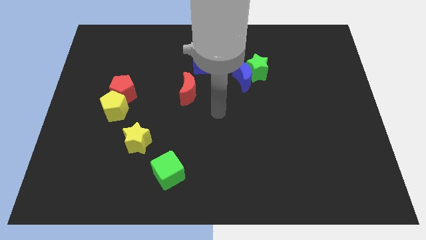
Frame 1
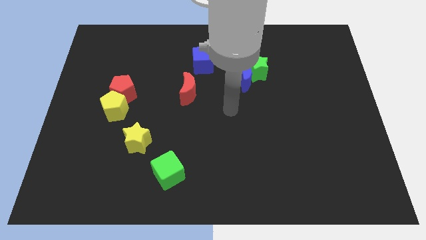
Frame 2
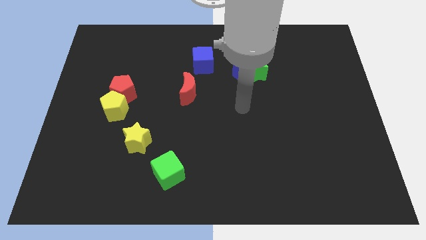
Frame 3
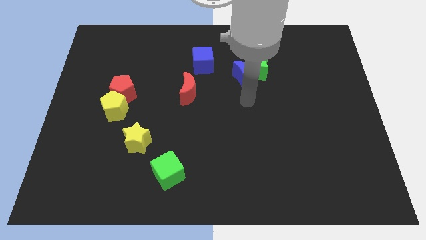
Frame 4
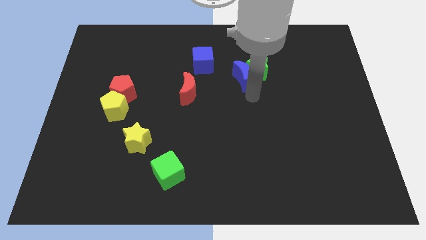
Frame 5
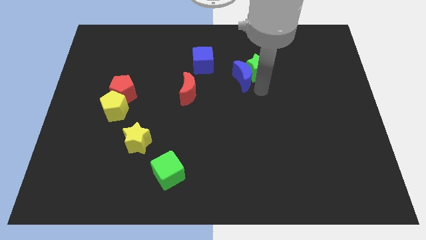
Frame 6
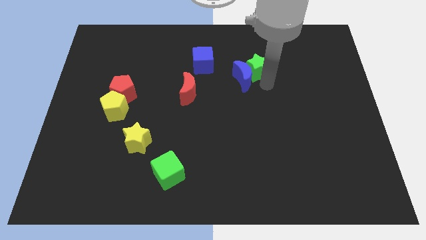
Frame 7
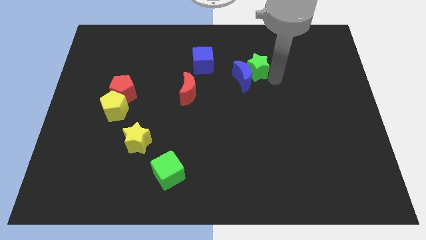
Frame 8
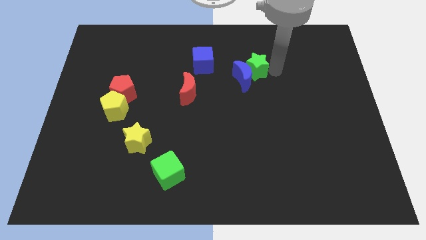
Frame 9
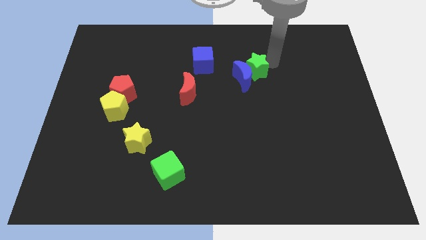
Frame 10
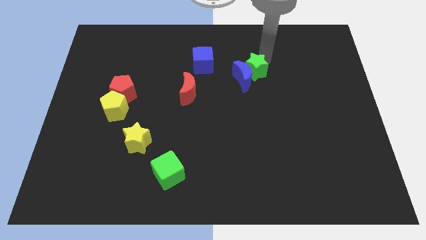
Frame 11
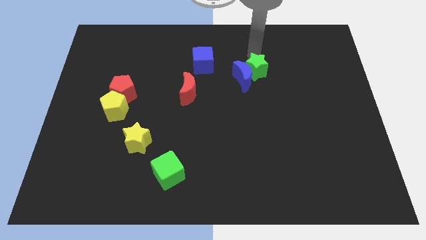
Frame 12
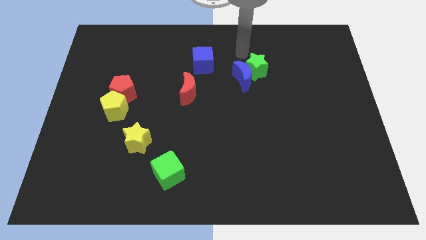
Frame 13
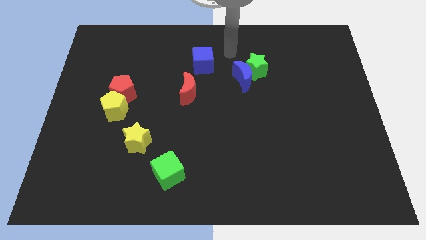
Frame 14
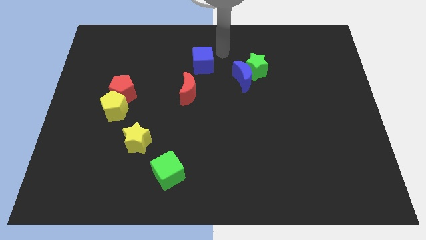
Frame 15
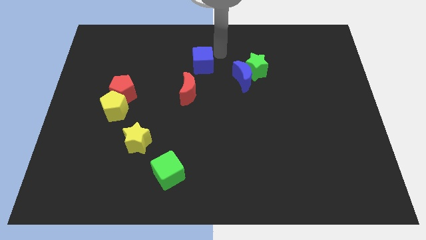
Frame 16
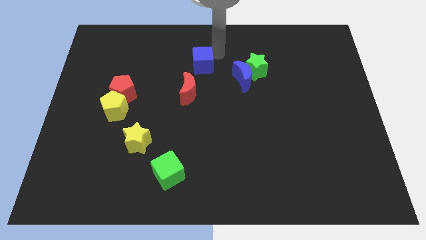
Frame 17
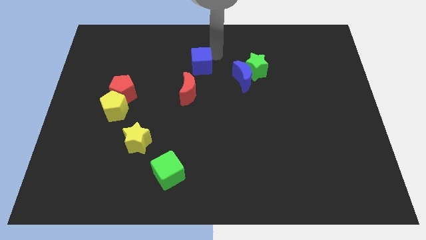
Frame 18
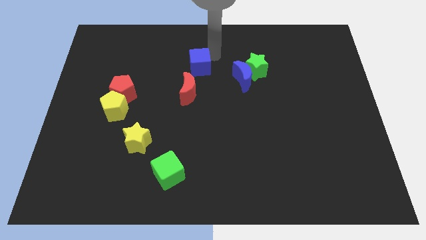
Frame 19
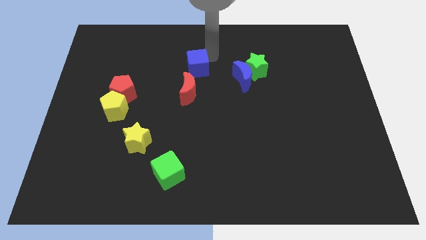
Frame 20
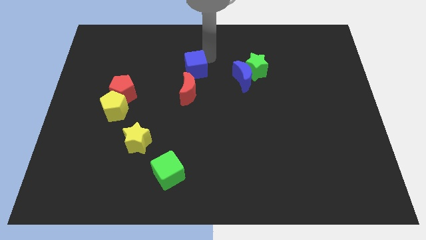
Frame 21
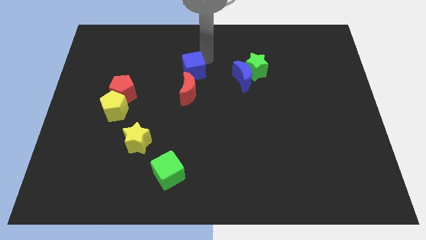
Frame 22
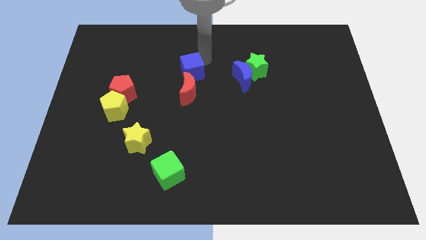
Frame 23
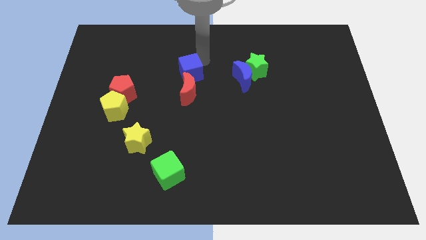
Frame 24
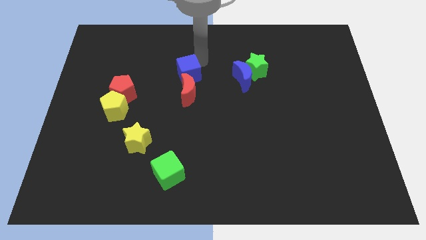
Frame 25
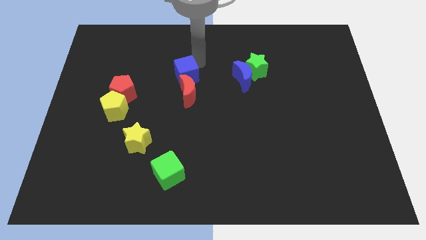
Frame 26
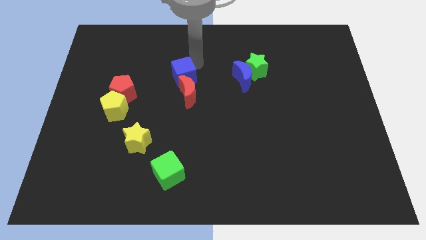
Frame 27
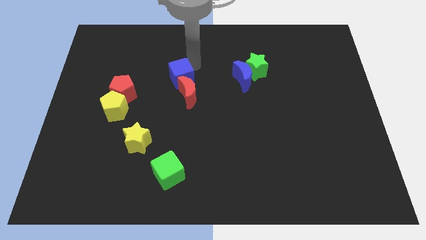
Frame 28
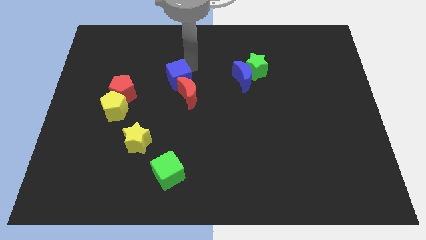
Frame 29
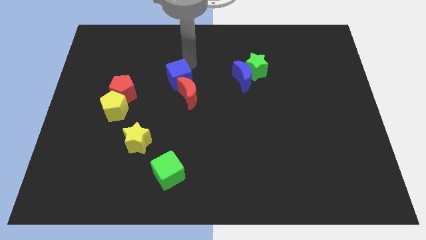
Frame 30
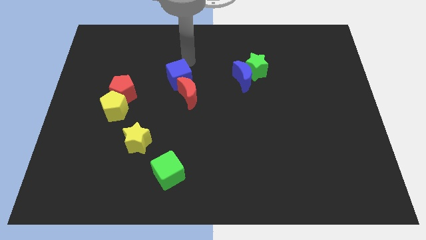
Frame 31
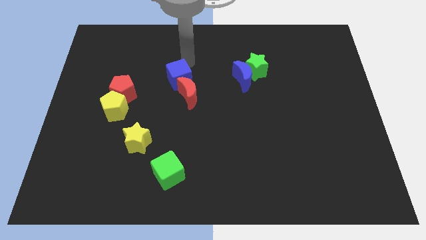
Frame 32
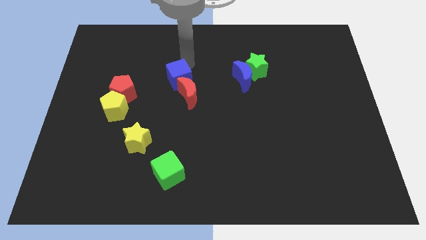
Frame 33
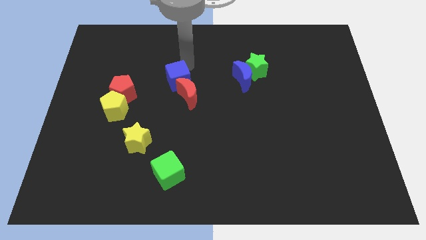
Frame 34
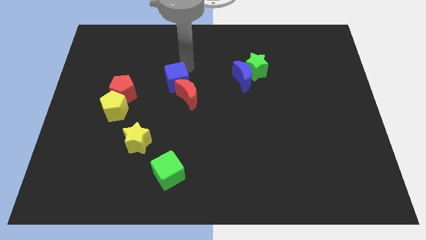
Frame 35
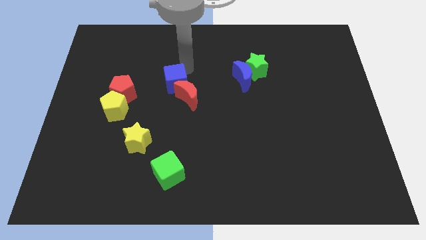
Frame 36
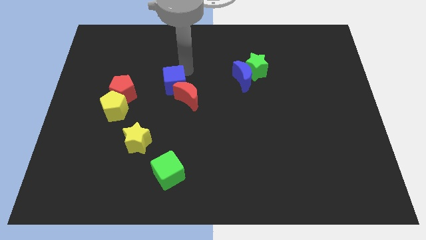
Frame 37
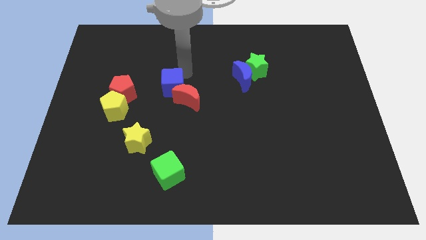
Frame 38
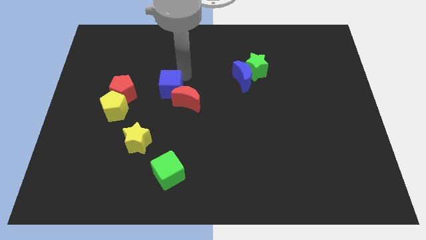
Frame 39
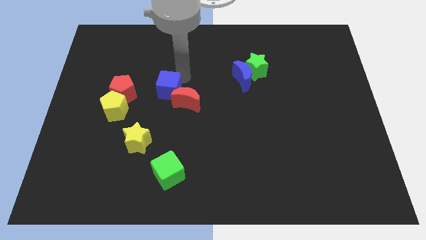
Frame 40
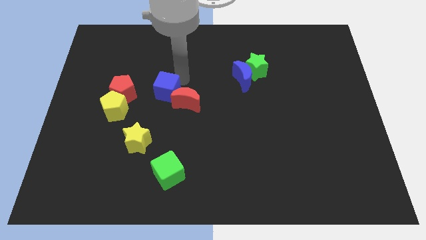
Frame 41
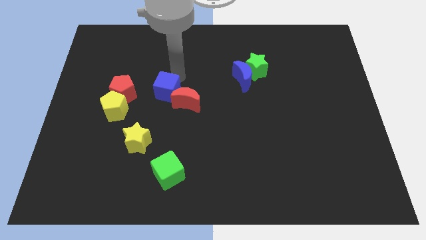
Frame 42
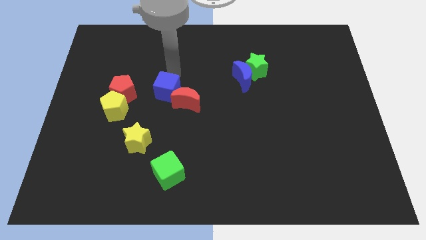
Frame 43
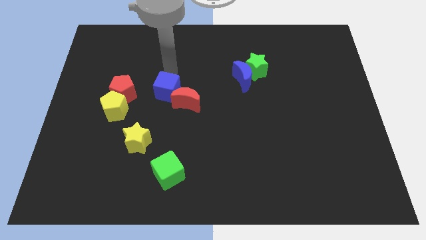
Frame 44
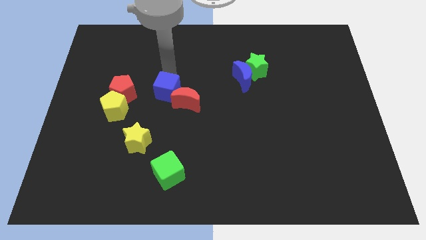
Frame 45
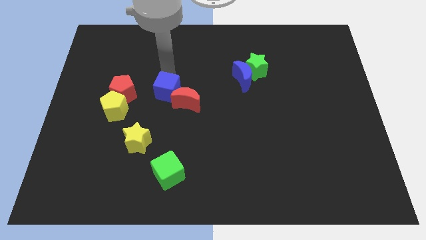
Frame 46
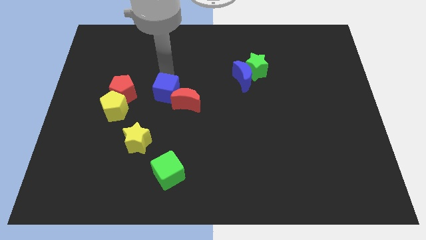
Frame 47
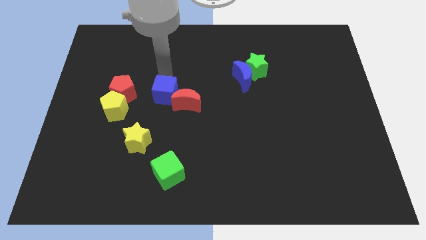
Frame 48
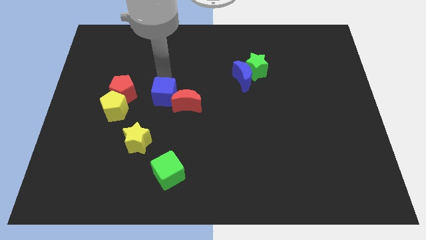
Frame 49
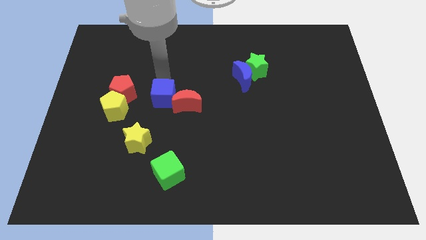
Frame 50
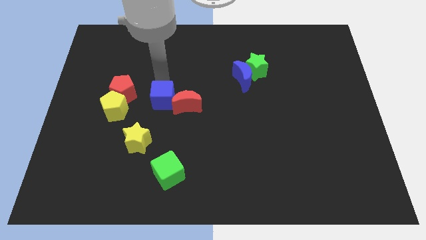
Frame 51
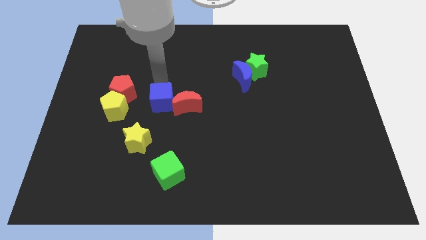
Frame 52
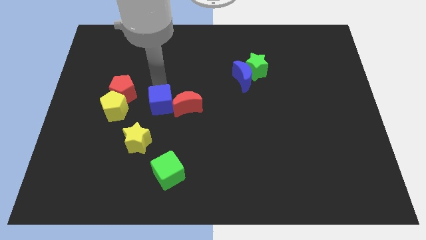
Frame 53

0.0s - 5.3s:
slide the blue cube to the top right side of the yellow star

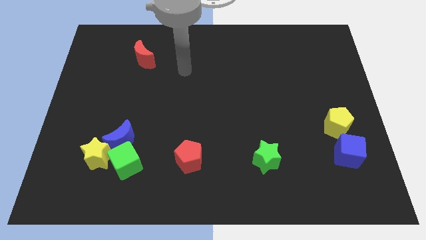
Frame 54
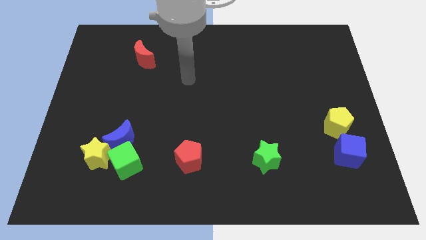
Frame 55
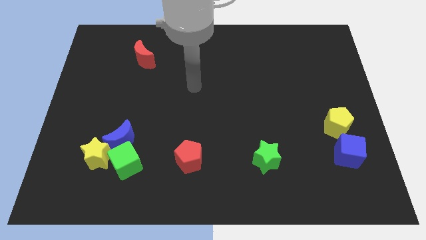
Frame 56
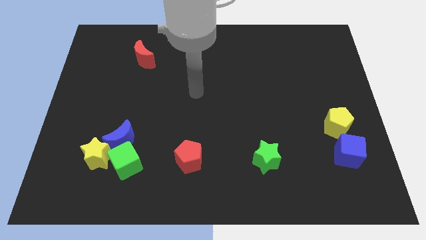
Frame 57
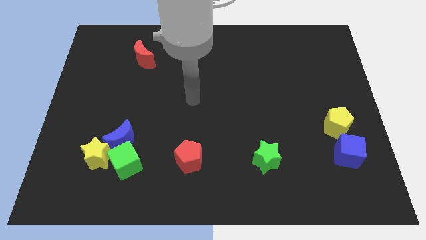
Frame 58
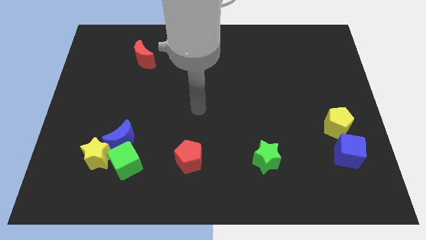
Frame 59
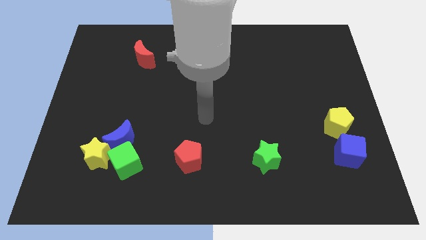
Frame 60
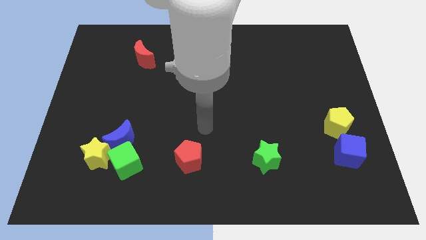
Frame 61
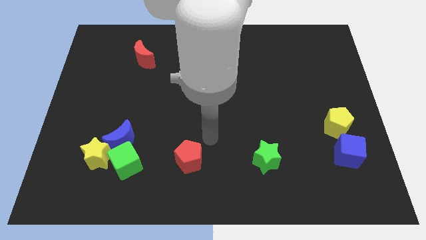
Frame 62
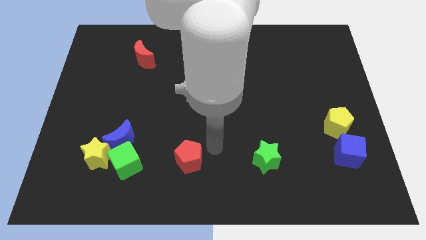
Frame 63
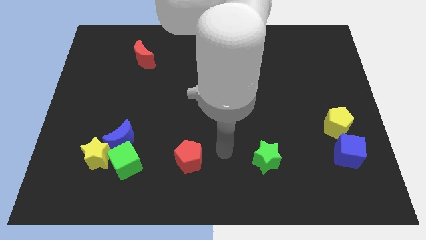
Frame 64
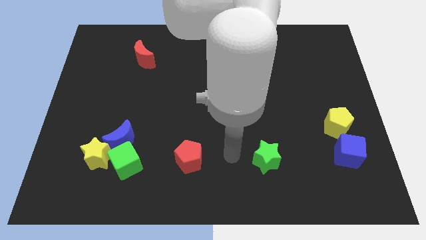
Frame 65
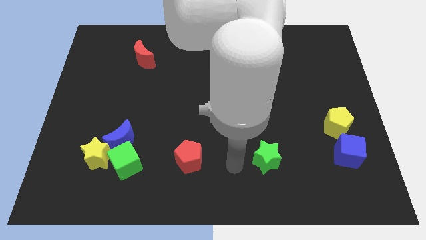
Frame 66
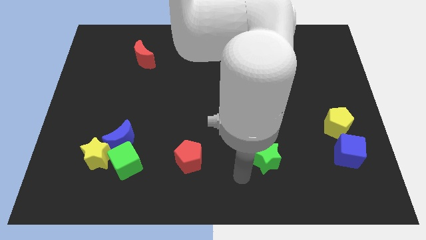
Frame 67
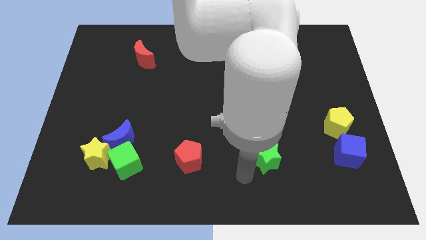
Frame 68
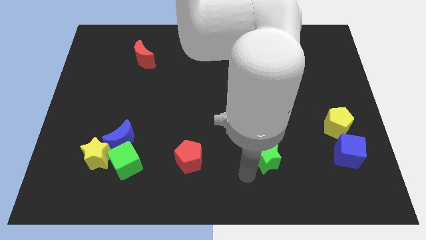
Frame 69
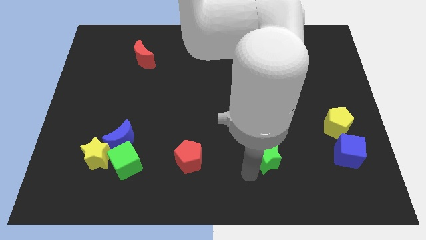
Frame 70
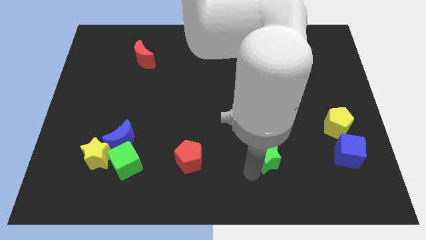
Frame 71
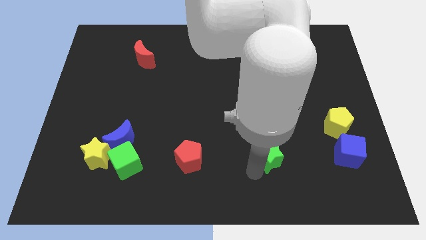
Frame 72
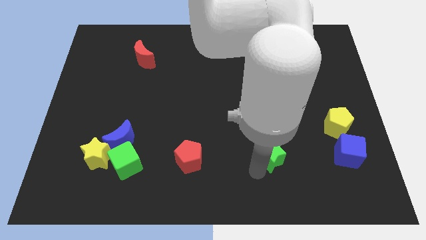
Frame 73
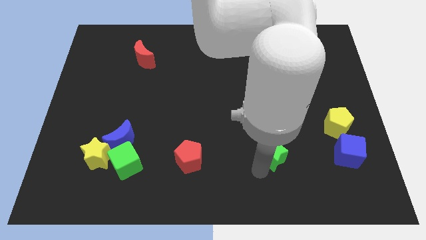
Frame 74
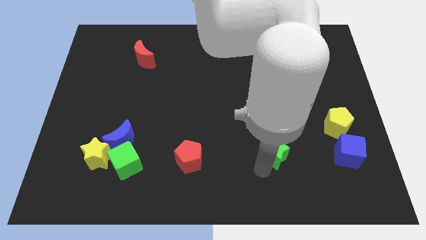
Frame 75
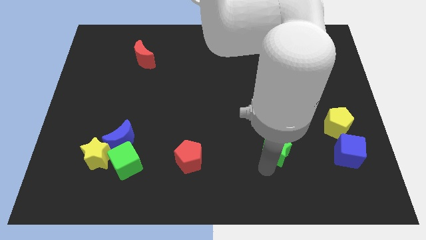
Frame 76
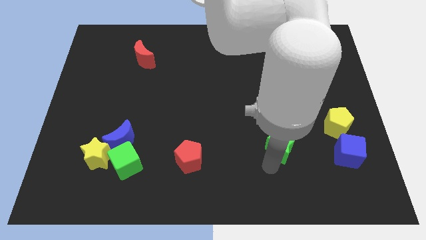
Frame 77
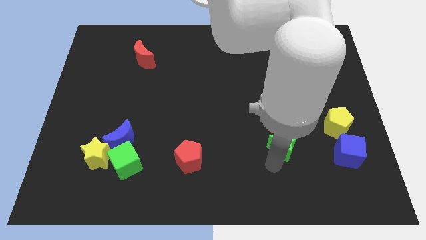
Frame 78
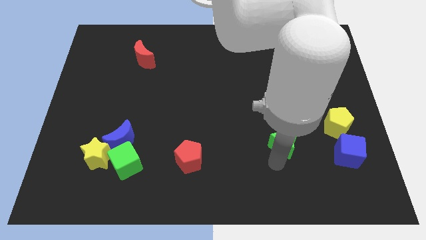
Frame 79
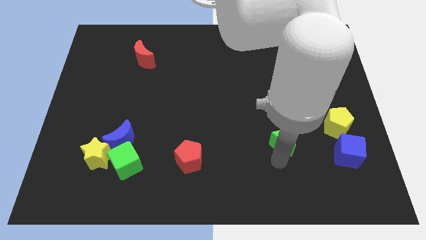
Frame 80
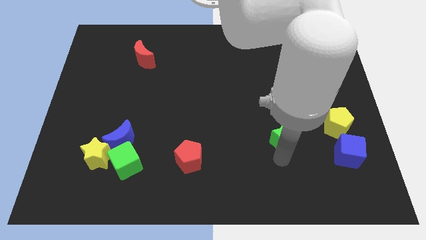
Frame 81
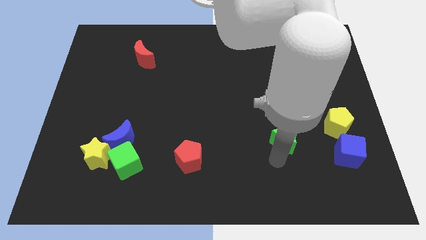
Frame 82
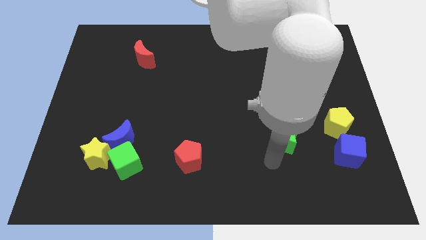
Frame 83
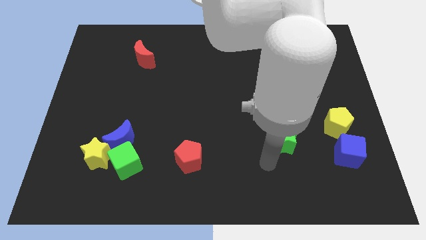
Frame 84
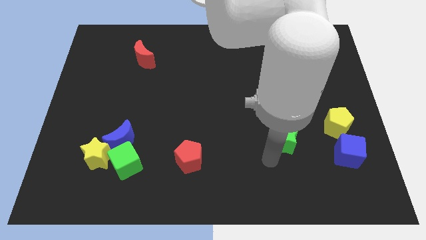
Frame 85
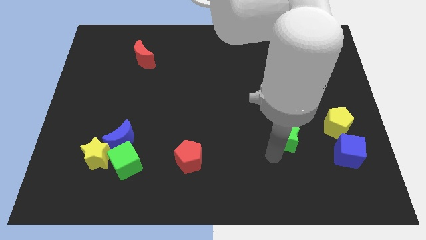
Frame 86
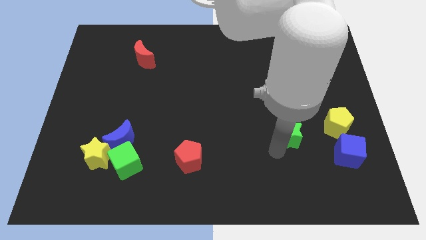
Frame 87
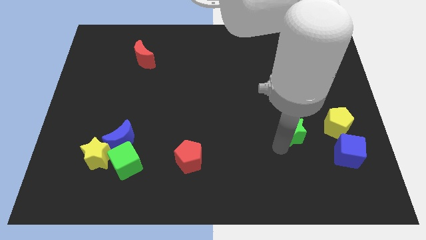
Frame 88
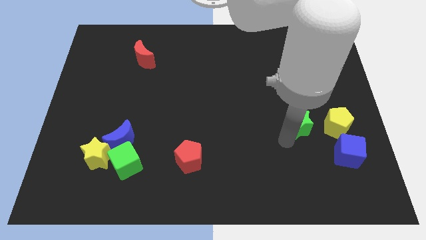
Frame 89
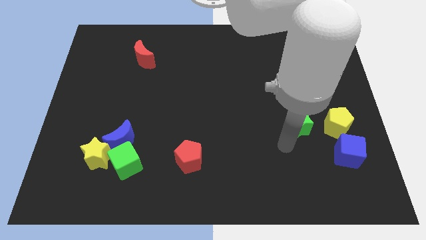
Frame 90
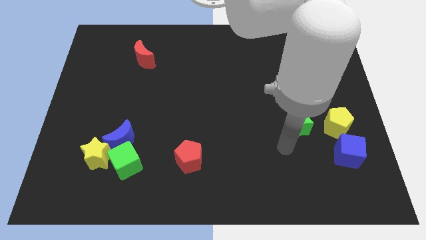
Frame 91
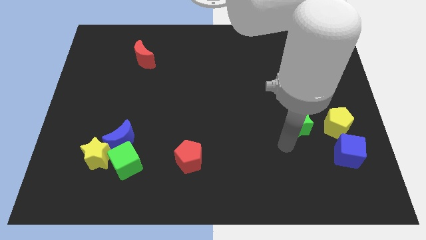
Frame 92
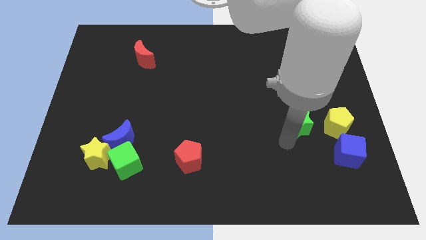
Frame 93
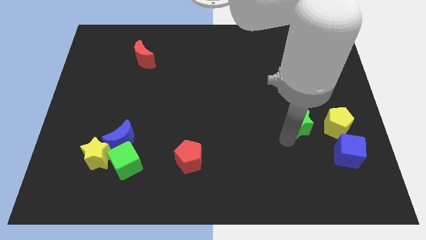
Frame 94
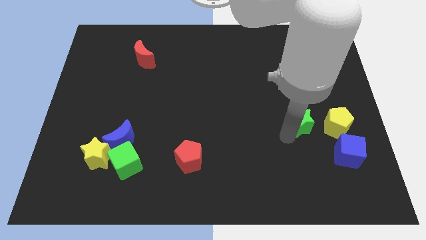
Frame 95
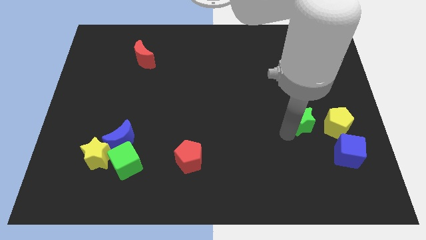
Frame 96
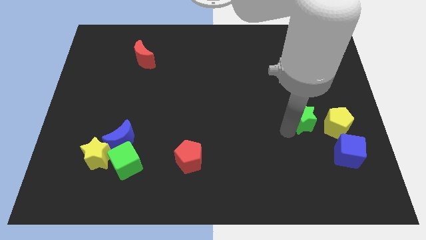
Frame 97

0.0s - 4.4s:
push the green star to the top left side of the yellow pentagon
